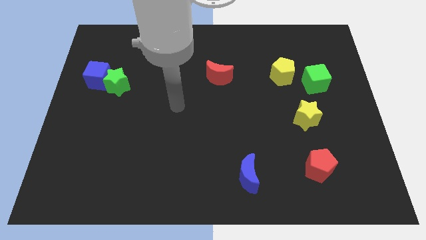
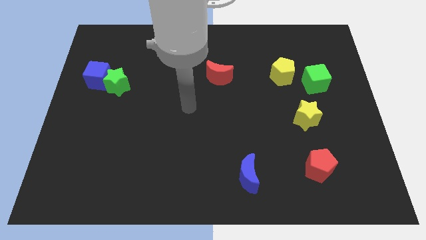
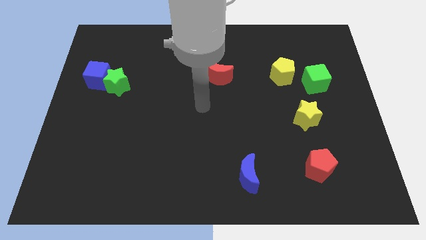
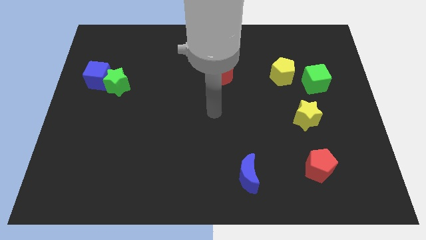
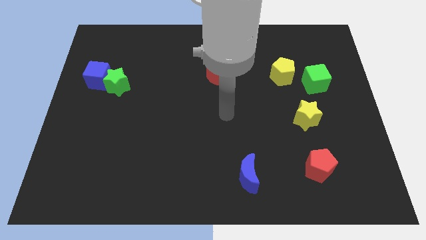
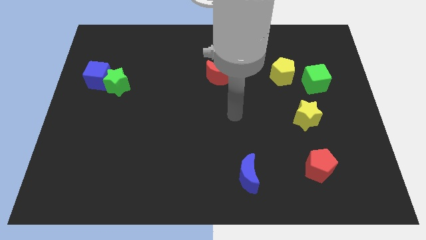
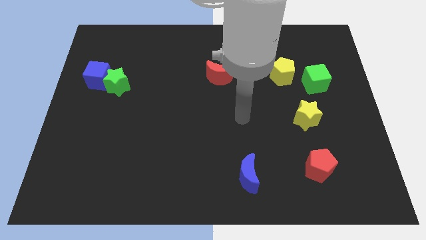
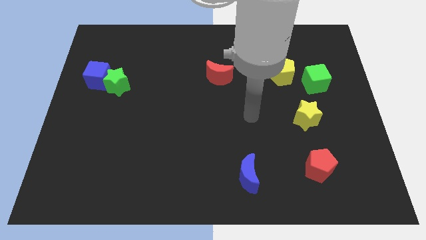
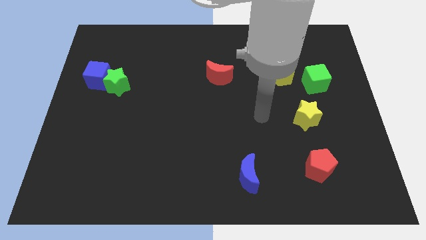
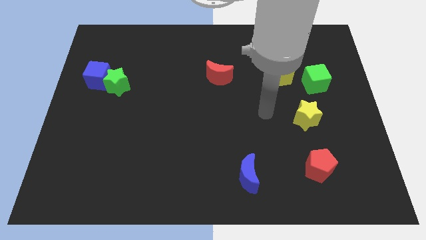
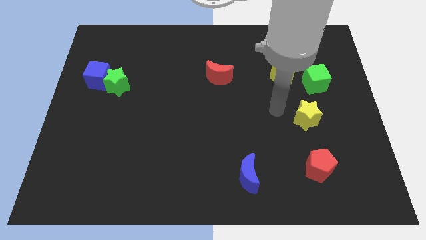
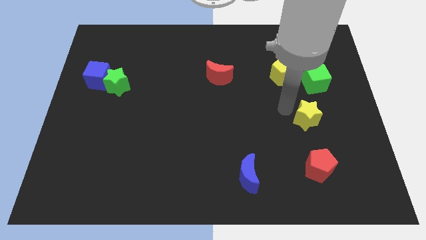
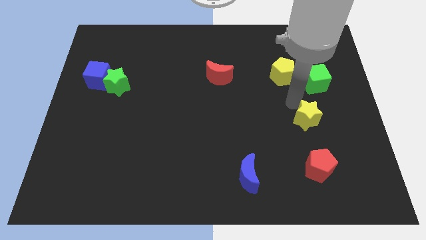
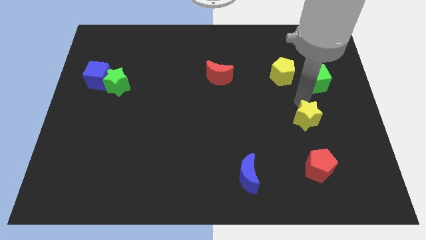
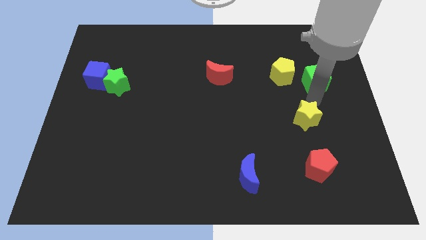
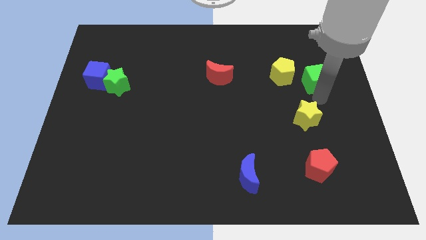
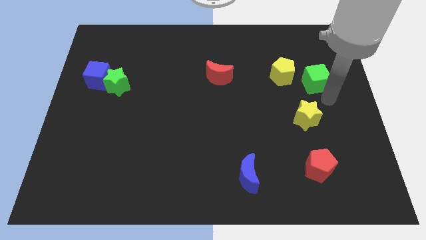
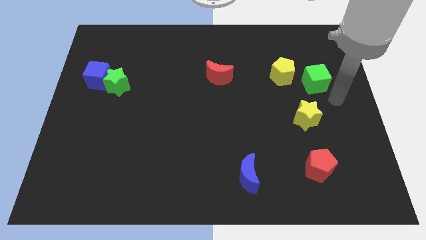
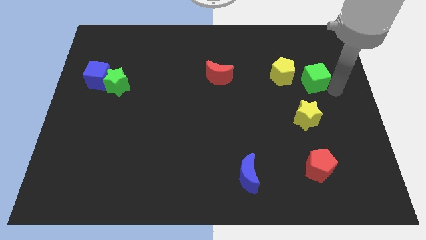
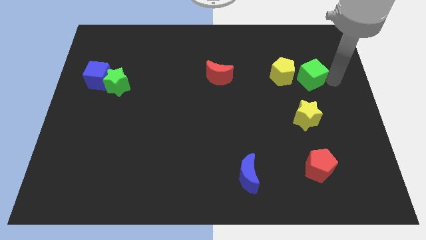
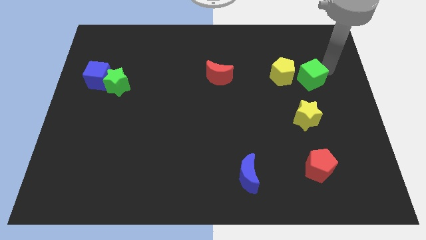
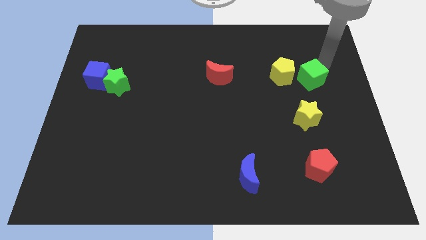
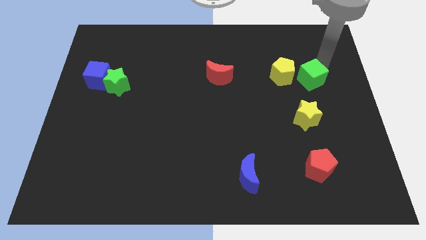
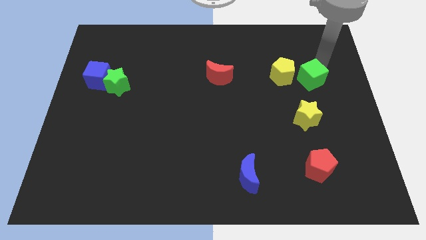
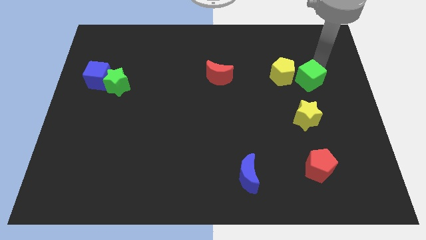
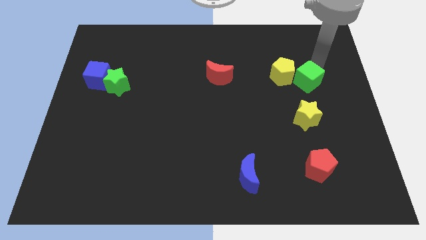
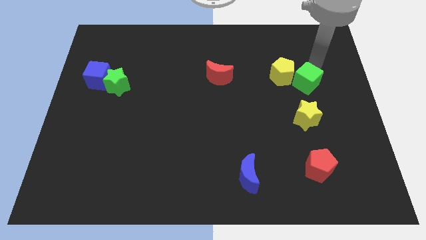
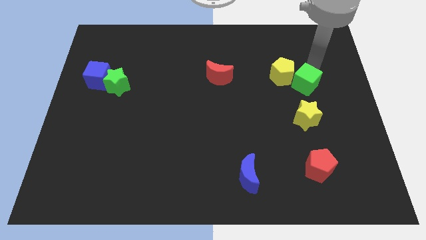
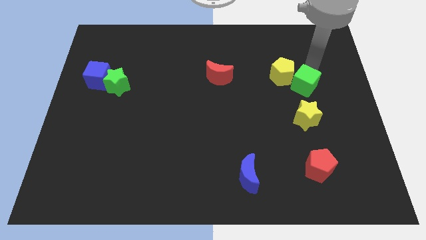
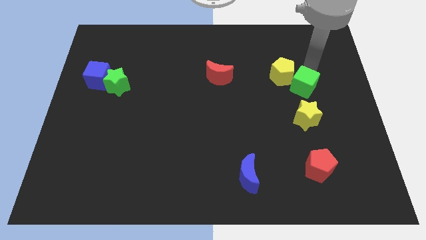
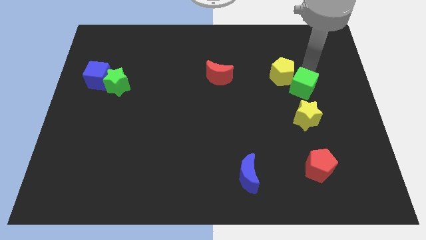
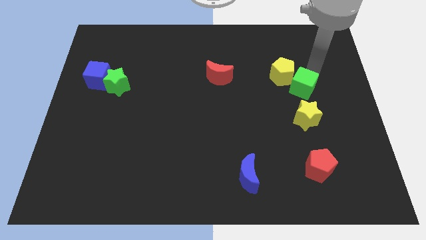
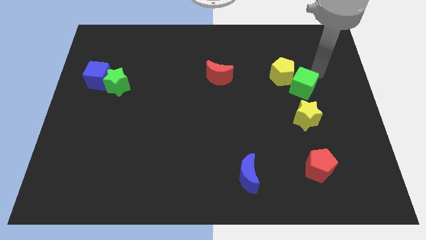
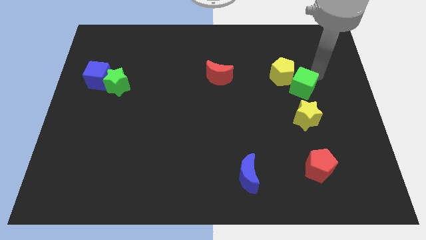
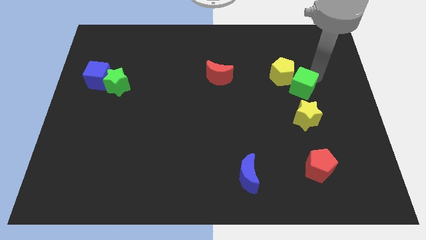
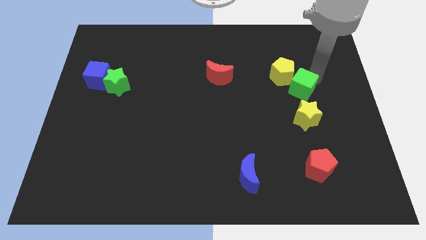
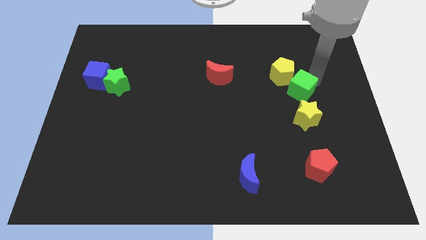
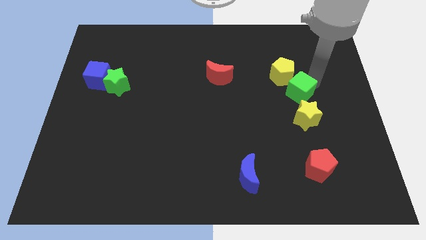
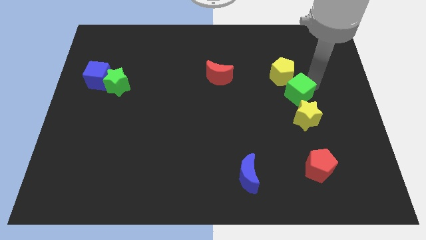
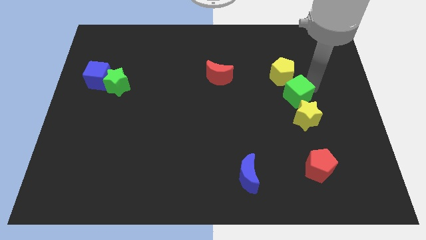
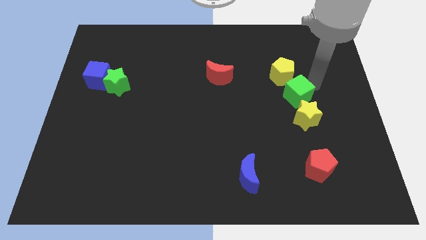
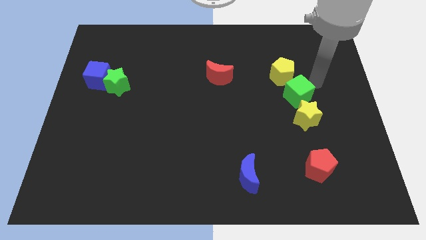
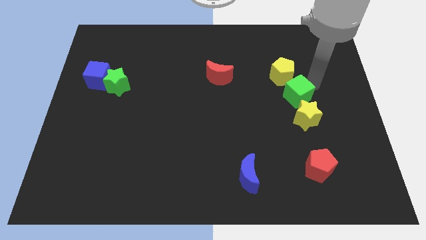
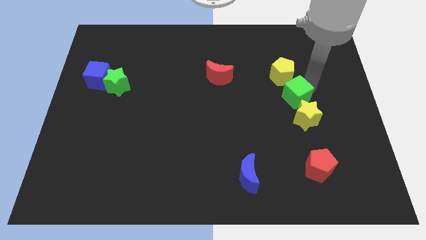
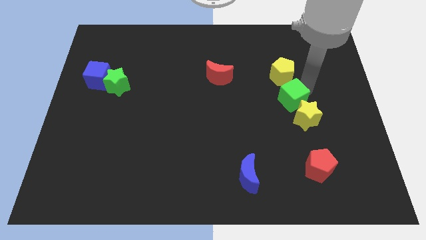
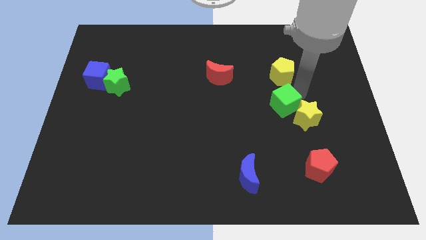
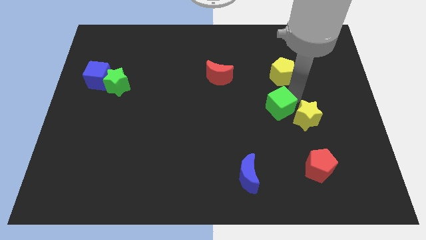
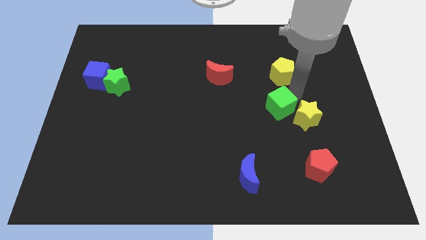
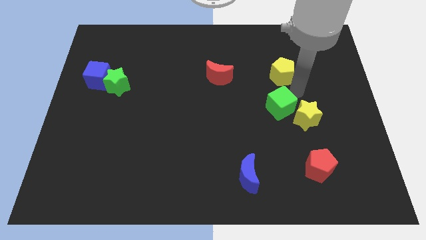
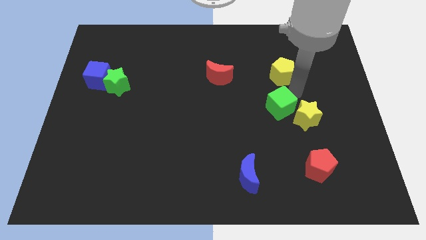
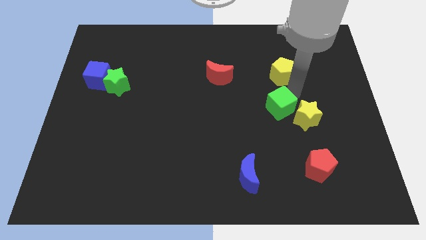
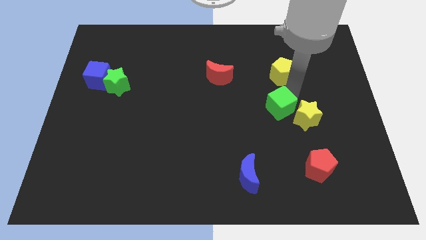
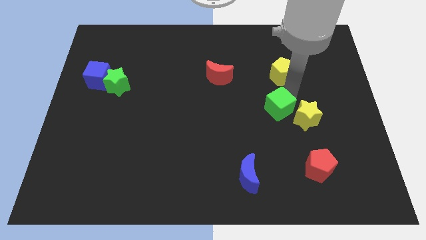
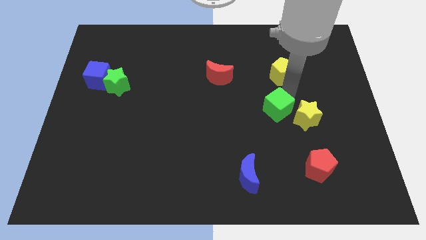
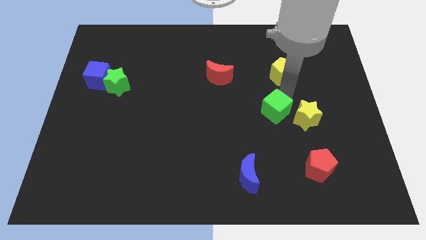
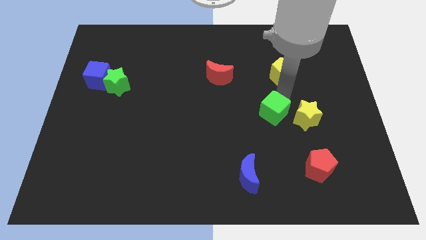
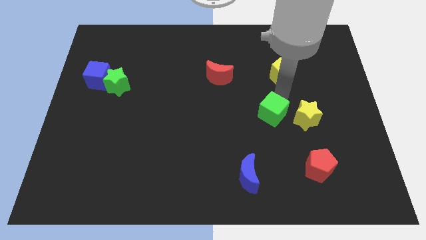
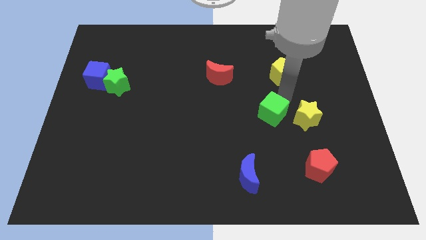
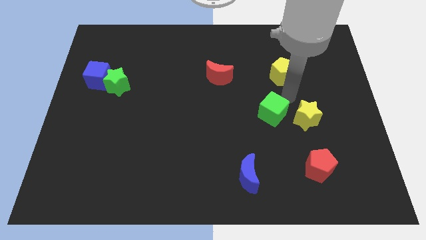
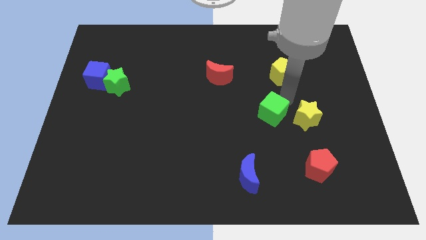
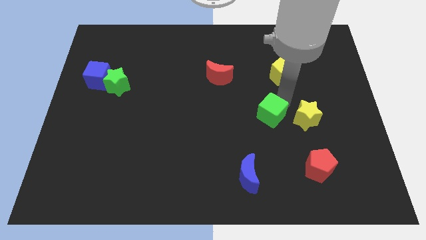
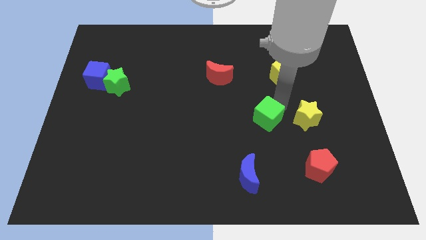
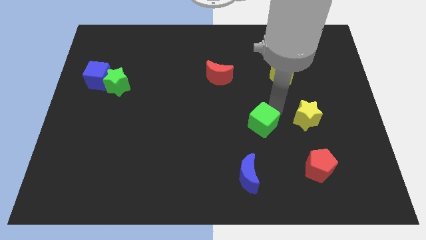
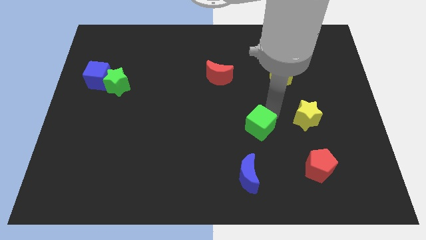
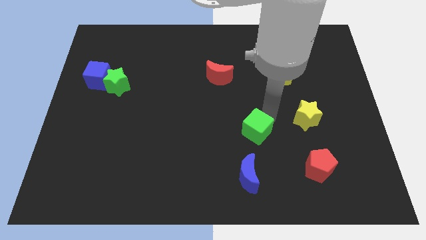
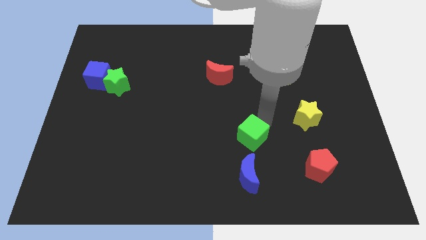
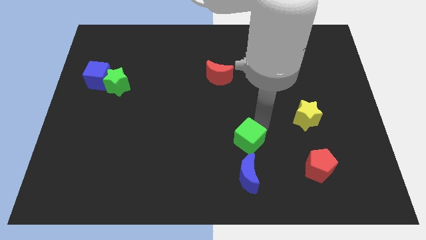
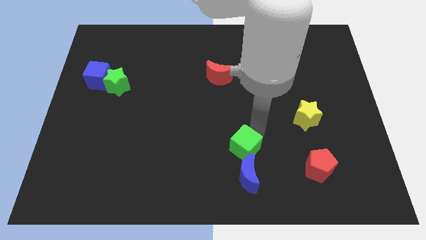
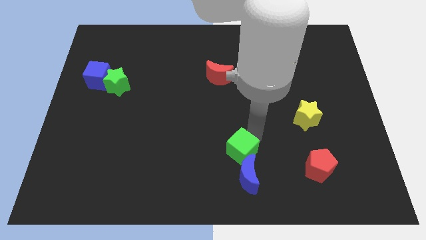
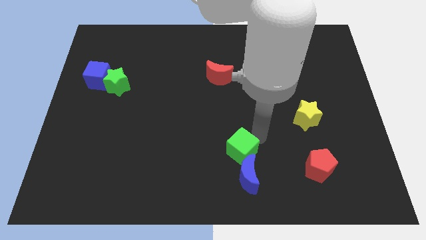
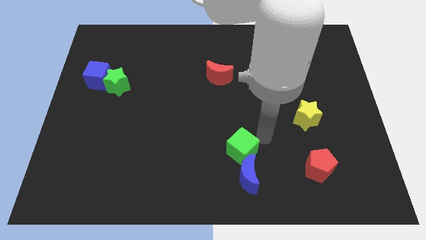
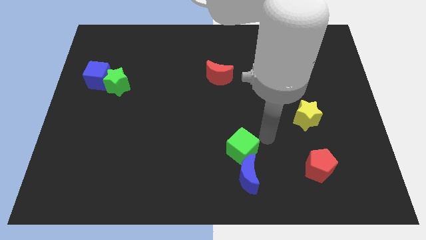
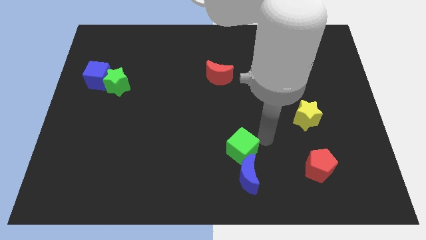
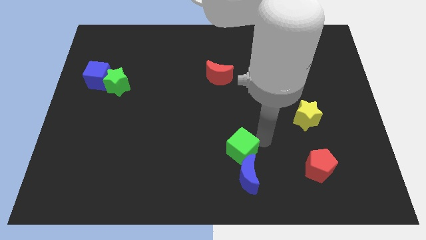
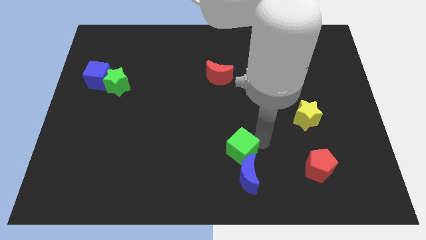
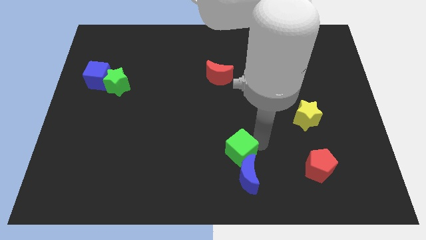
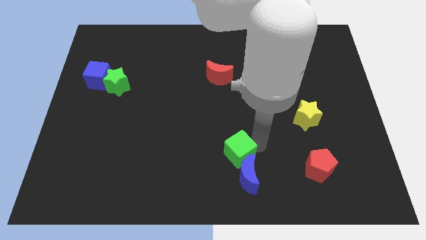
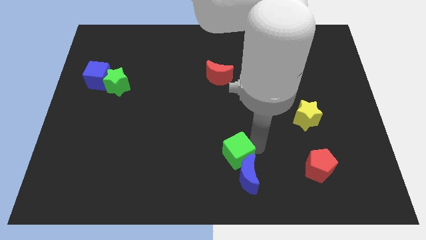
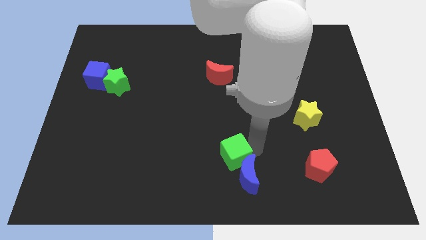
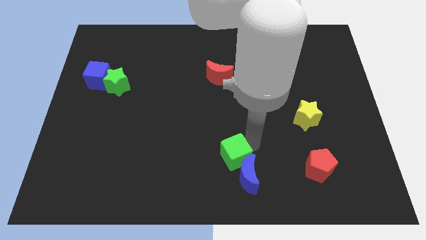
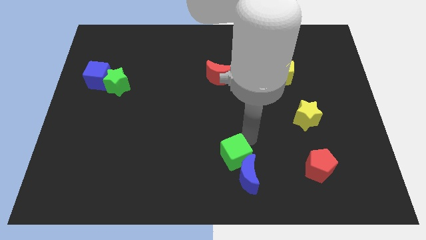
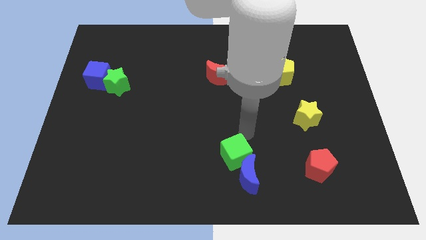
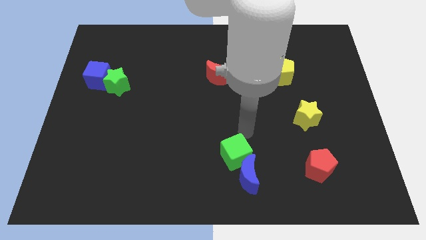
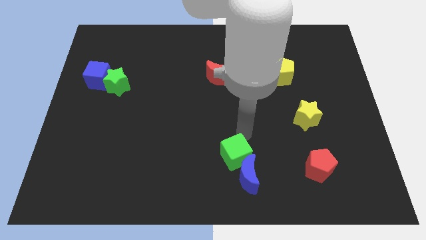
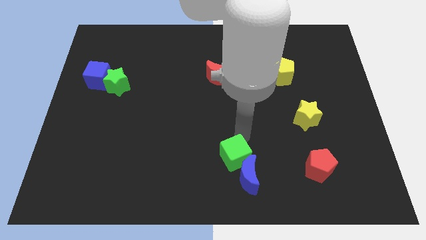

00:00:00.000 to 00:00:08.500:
push the green cube to the bottom side
